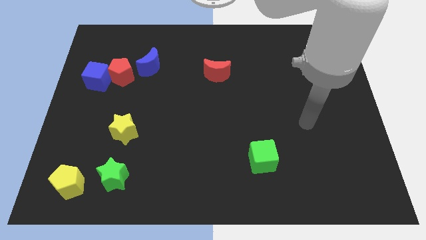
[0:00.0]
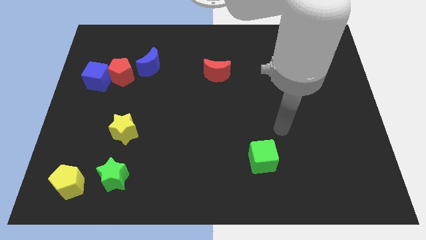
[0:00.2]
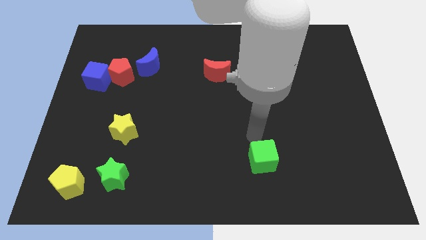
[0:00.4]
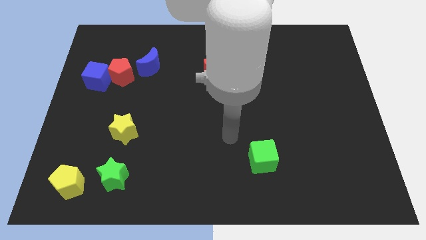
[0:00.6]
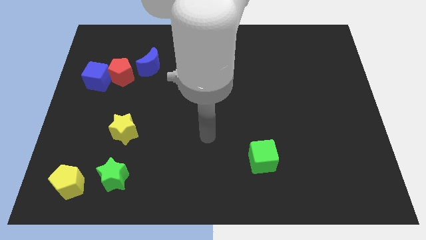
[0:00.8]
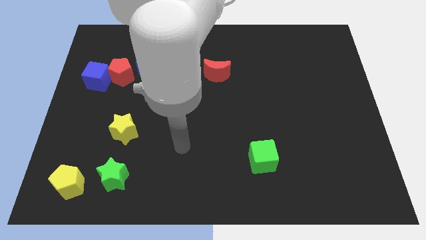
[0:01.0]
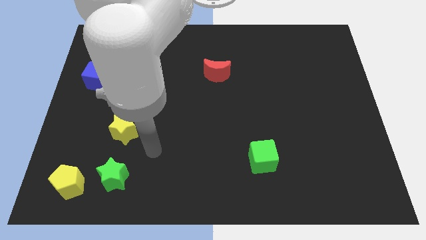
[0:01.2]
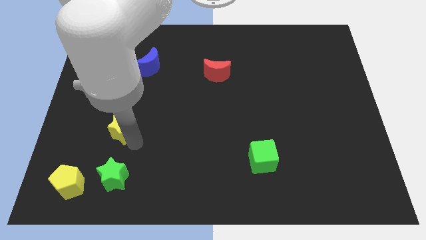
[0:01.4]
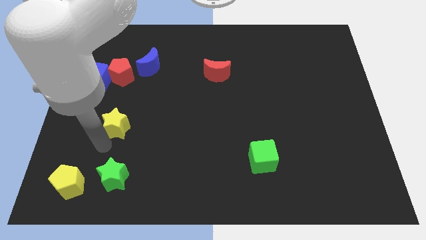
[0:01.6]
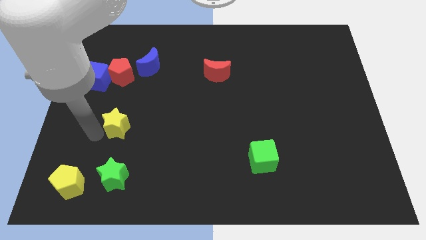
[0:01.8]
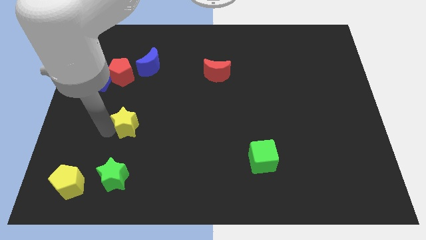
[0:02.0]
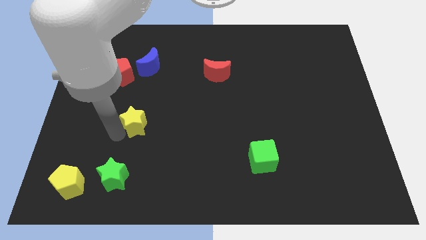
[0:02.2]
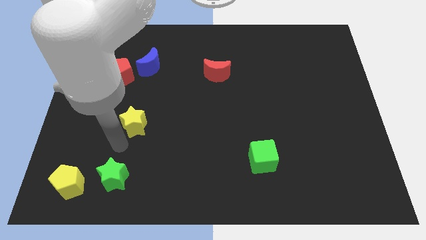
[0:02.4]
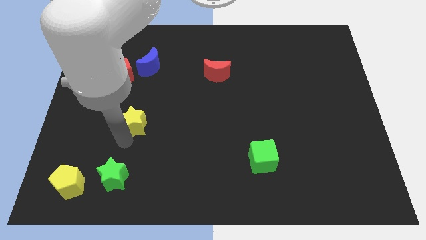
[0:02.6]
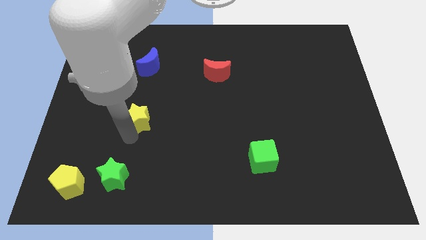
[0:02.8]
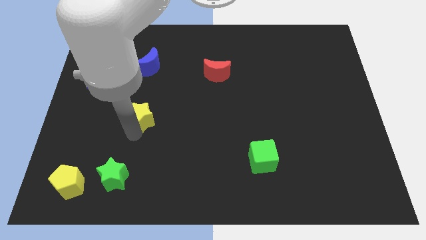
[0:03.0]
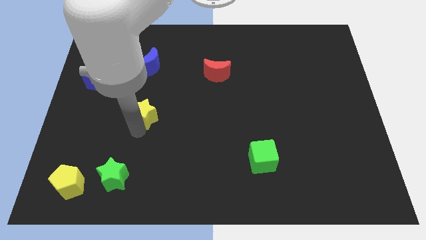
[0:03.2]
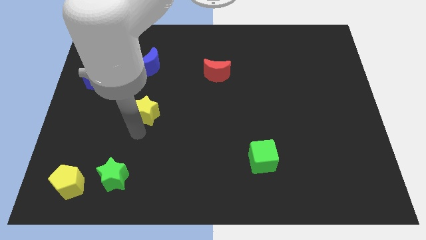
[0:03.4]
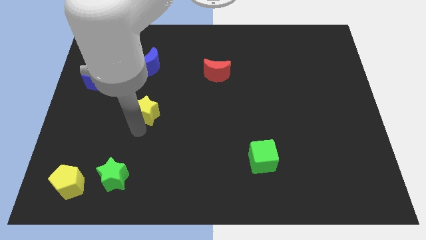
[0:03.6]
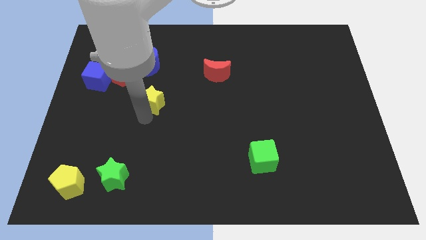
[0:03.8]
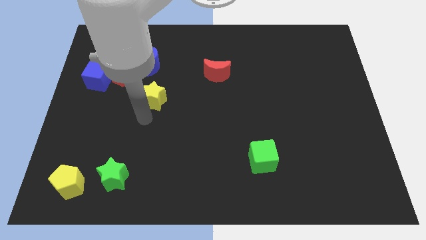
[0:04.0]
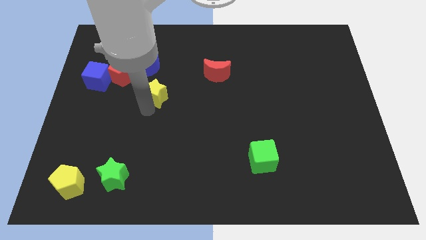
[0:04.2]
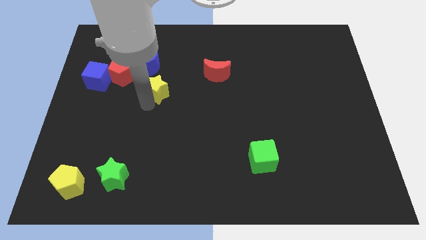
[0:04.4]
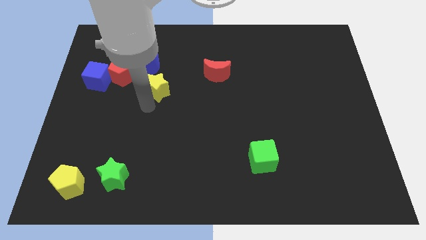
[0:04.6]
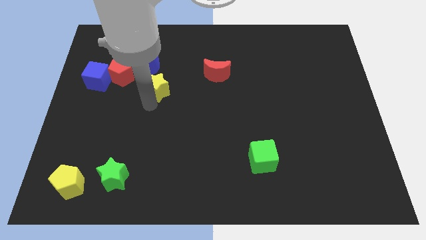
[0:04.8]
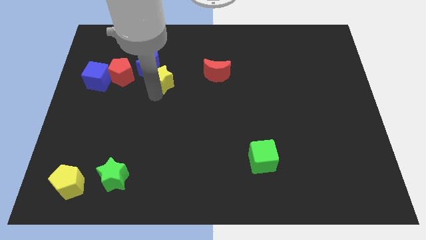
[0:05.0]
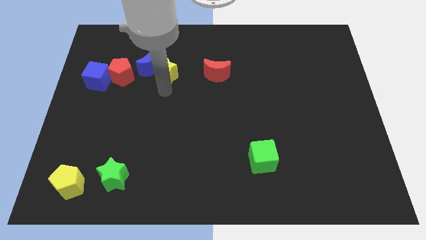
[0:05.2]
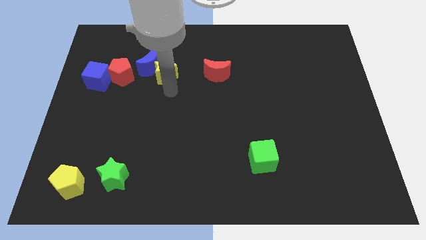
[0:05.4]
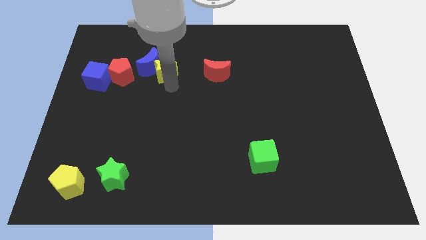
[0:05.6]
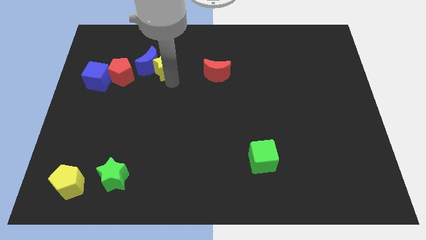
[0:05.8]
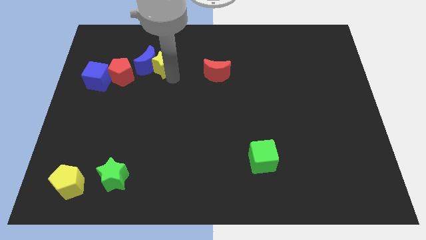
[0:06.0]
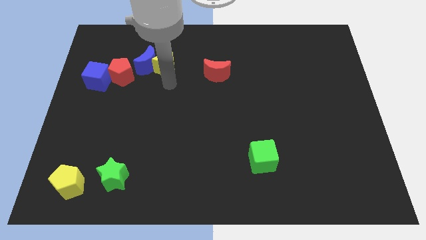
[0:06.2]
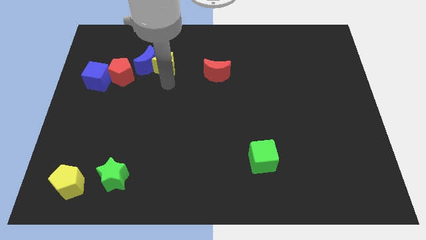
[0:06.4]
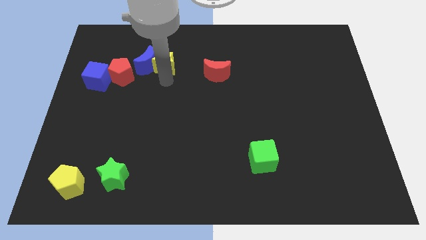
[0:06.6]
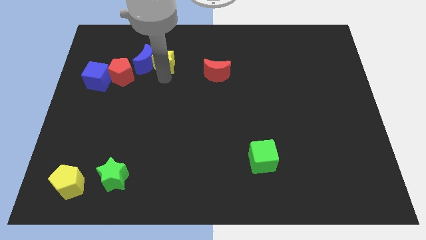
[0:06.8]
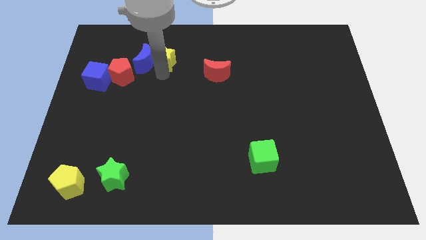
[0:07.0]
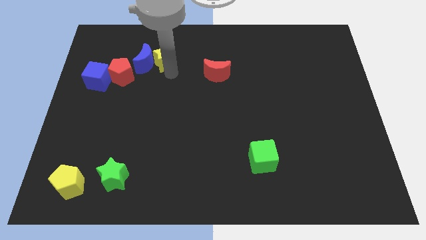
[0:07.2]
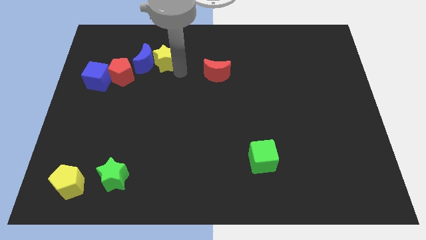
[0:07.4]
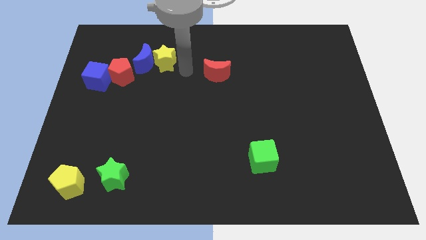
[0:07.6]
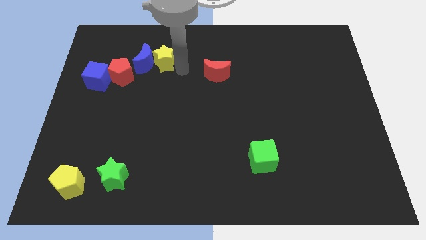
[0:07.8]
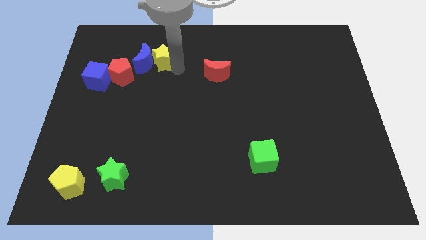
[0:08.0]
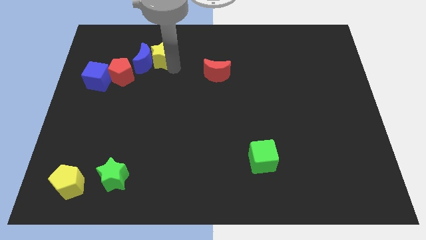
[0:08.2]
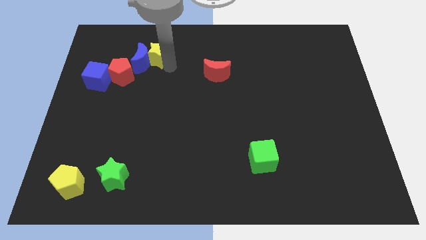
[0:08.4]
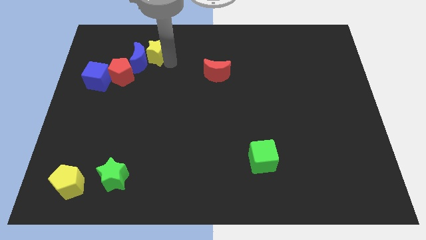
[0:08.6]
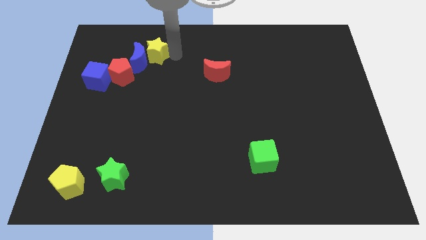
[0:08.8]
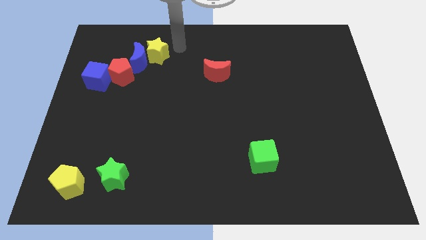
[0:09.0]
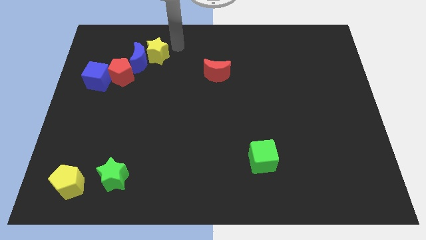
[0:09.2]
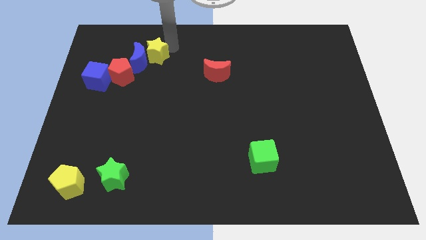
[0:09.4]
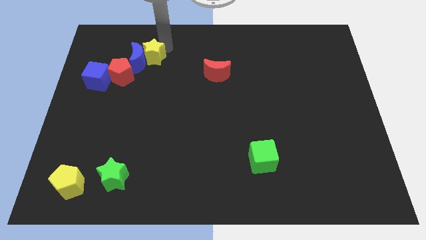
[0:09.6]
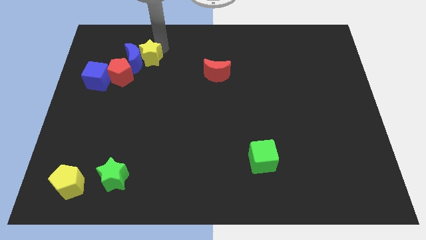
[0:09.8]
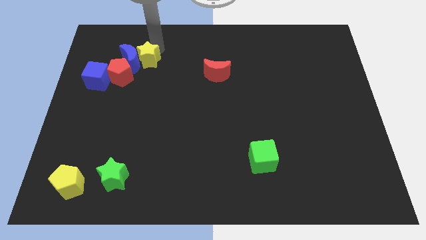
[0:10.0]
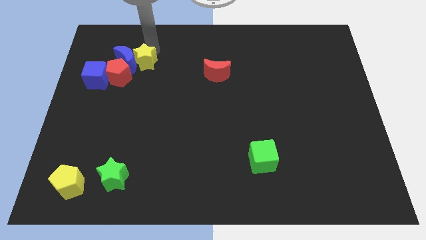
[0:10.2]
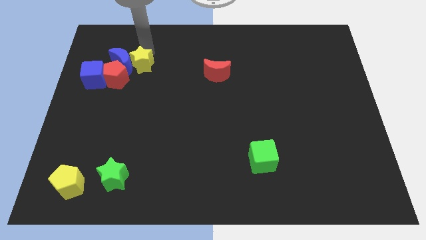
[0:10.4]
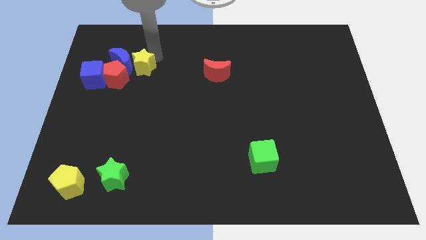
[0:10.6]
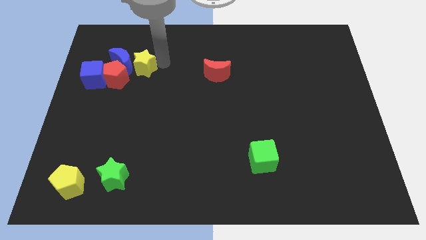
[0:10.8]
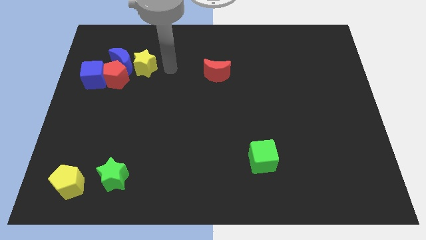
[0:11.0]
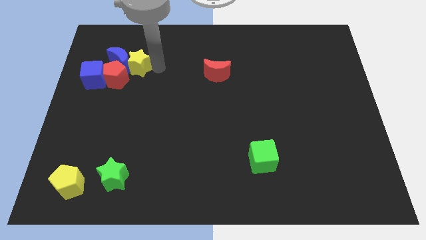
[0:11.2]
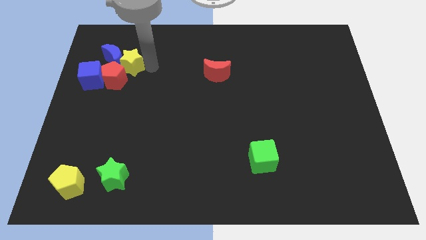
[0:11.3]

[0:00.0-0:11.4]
slide the yellow star to the top right of the blue cube

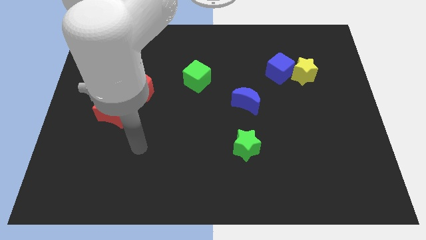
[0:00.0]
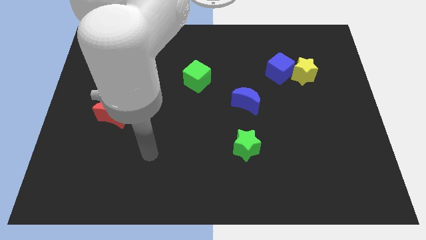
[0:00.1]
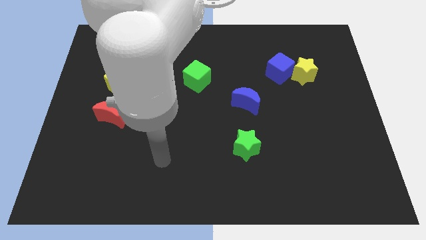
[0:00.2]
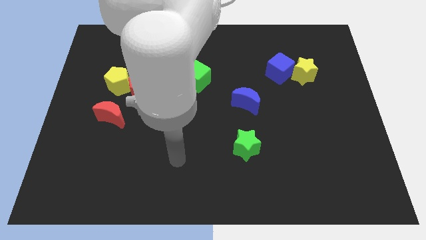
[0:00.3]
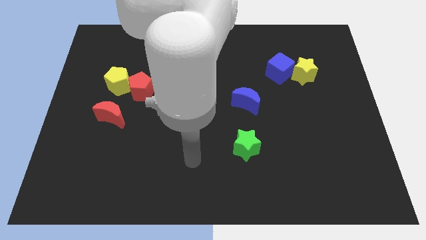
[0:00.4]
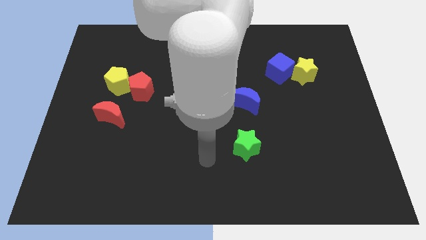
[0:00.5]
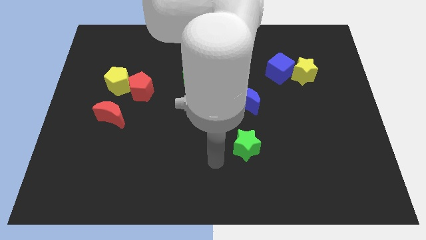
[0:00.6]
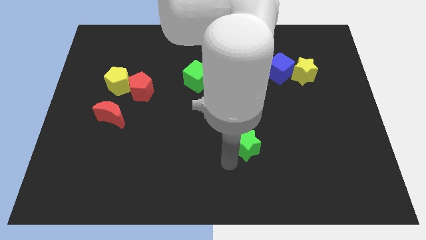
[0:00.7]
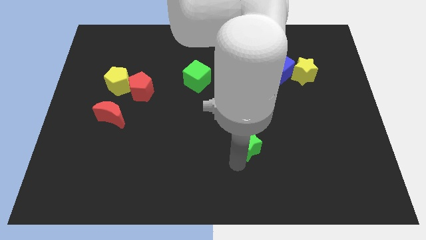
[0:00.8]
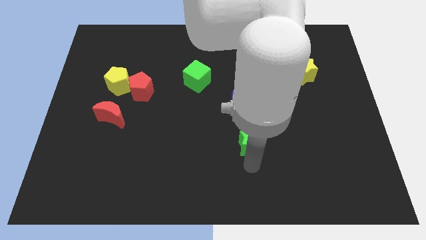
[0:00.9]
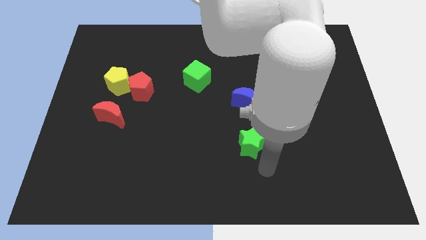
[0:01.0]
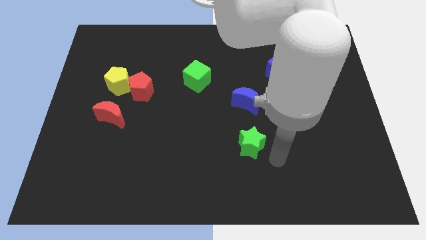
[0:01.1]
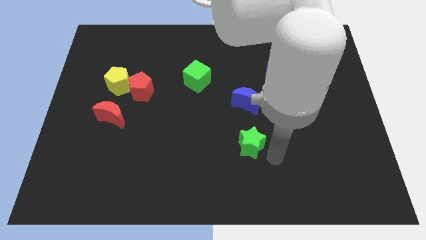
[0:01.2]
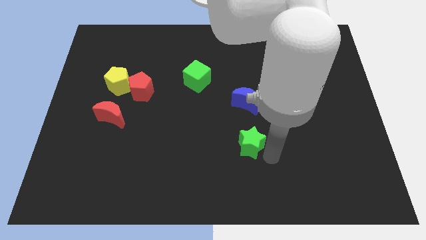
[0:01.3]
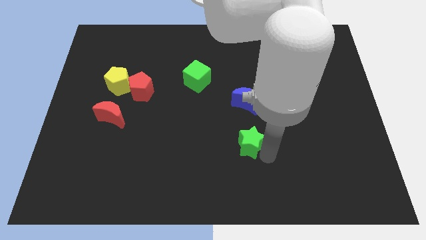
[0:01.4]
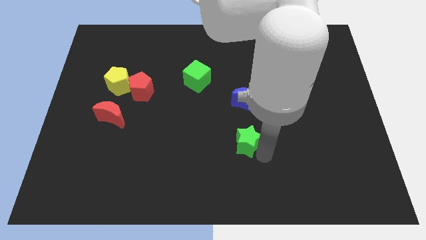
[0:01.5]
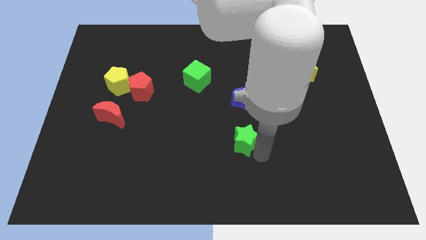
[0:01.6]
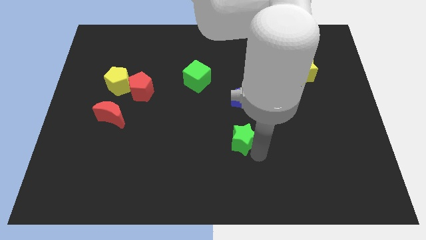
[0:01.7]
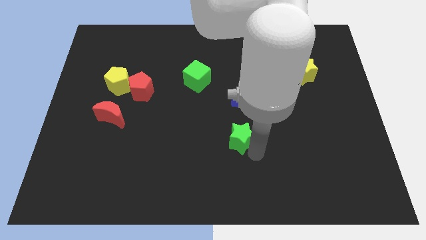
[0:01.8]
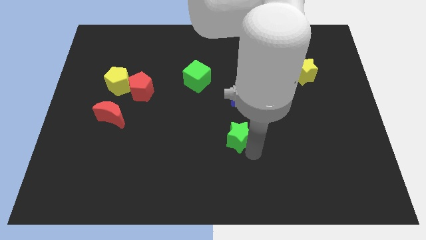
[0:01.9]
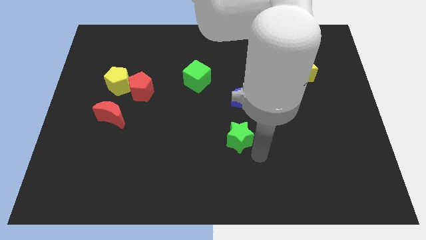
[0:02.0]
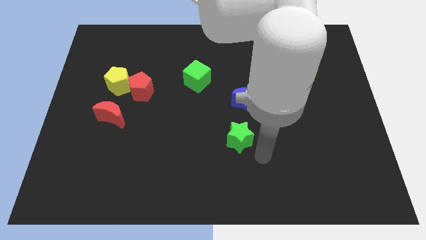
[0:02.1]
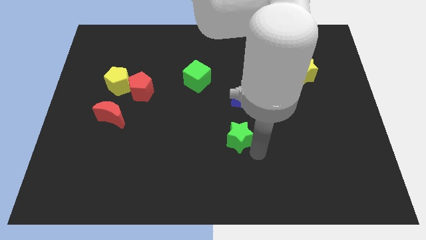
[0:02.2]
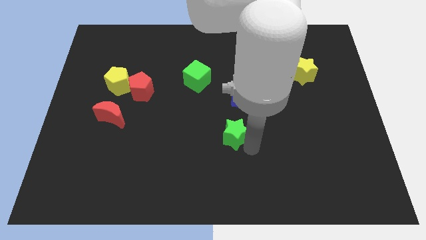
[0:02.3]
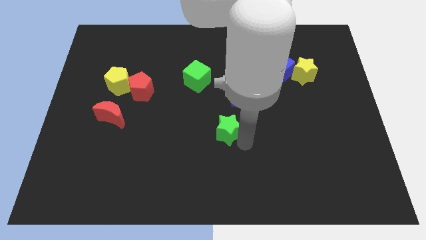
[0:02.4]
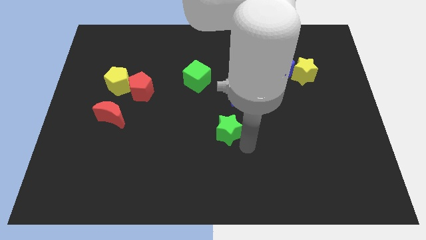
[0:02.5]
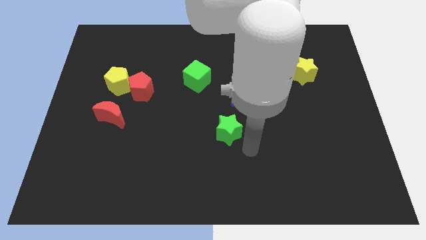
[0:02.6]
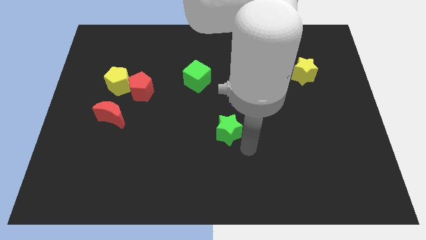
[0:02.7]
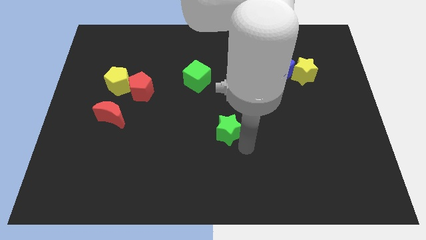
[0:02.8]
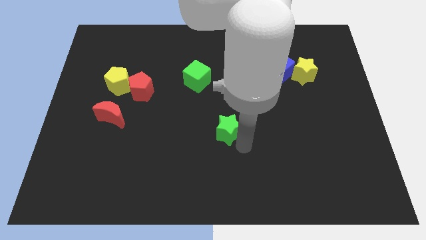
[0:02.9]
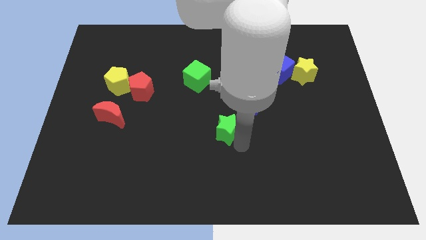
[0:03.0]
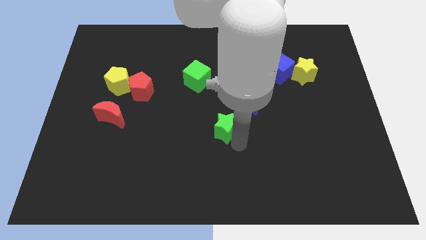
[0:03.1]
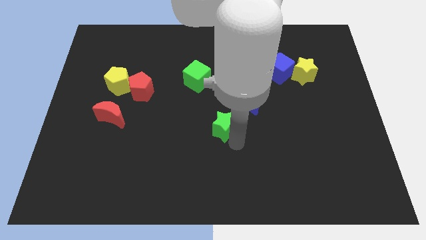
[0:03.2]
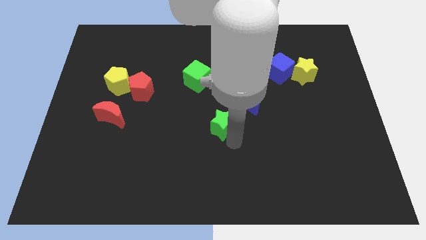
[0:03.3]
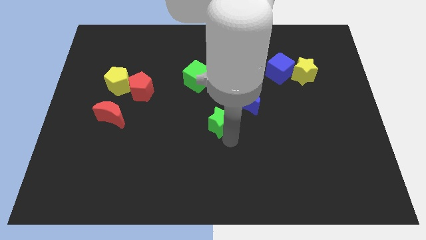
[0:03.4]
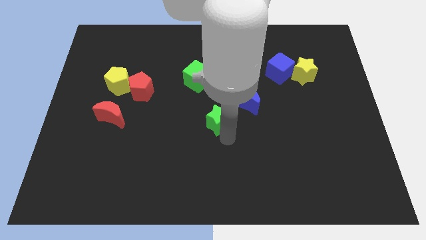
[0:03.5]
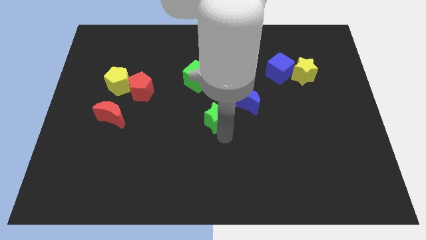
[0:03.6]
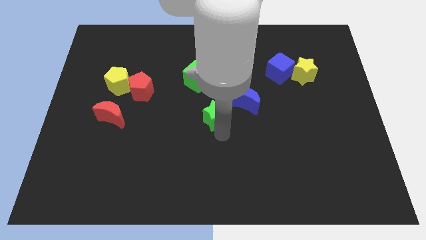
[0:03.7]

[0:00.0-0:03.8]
move the green star to the left of the blue moon
